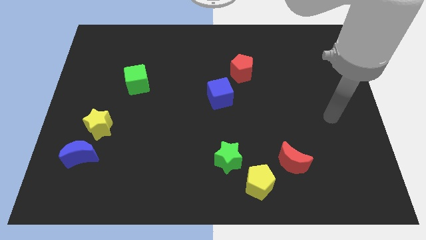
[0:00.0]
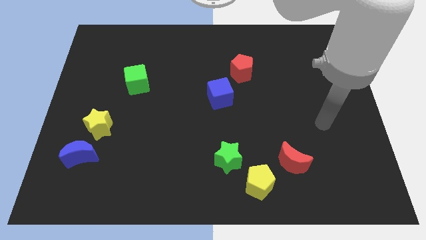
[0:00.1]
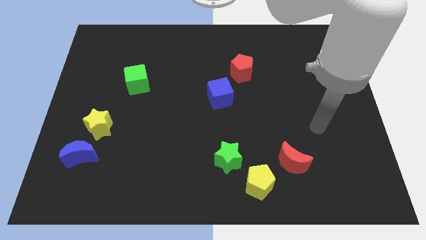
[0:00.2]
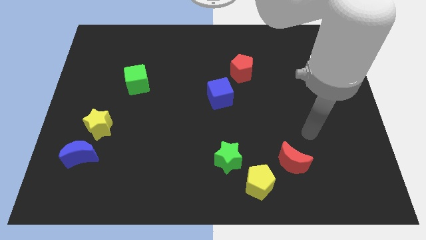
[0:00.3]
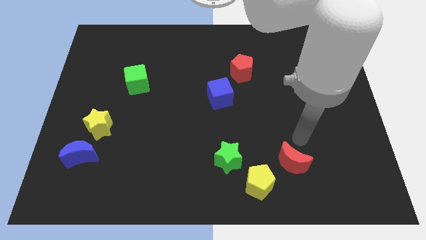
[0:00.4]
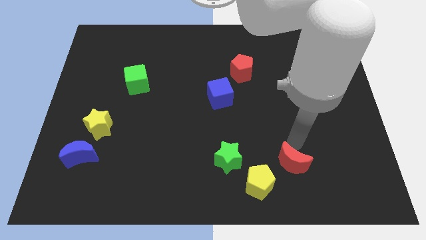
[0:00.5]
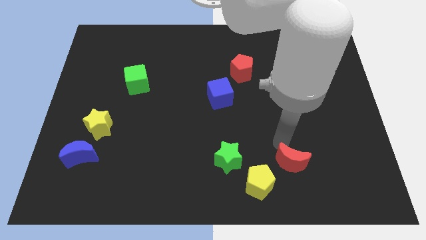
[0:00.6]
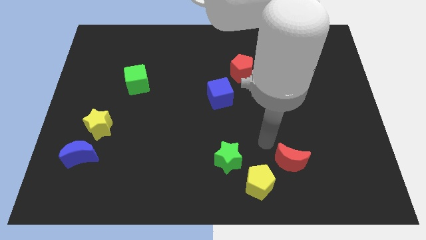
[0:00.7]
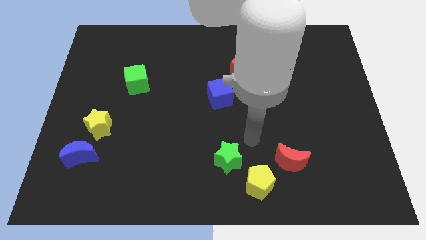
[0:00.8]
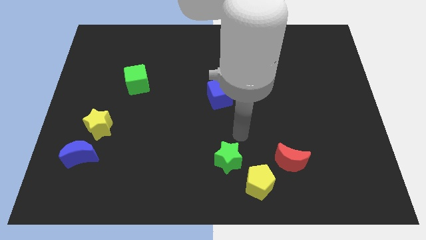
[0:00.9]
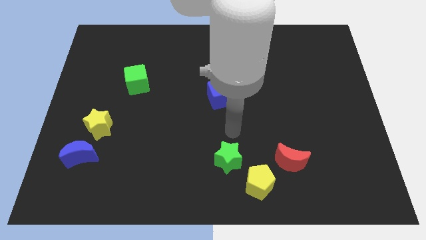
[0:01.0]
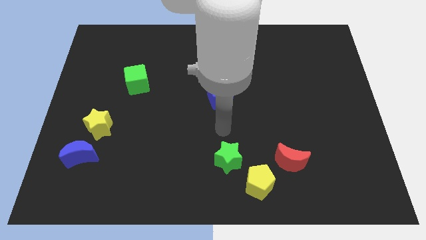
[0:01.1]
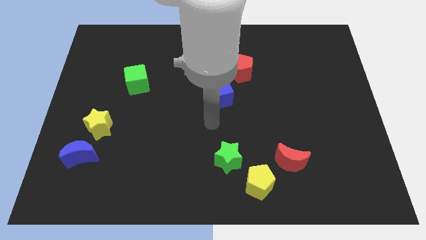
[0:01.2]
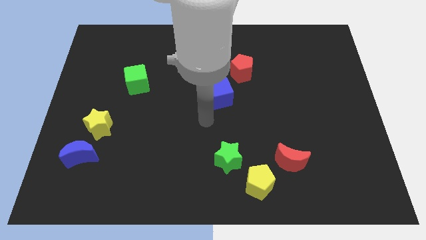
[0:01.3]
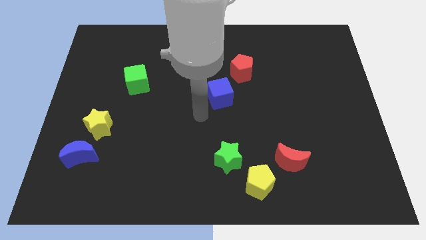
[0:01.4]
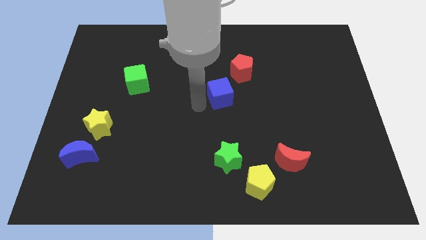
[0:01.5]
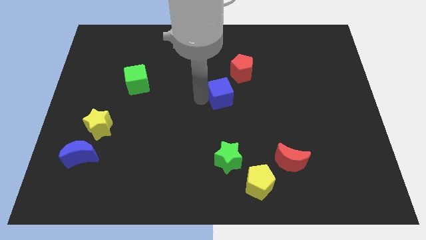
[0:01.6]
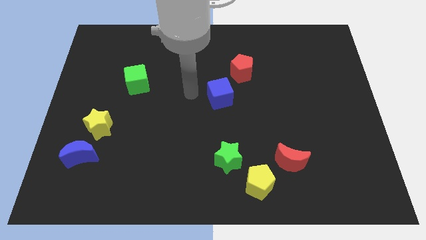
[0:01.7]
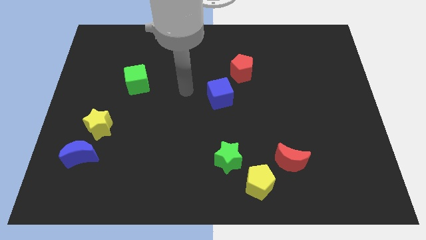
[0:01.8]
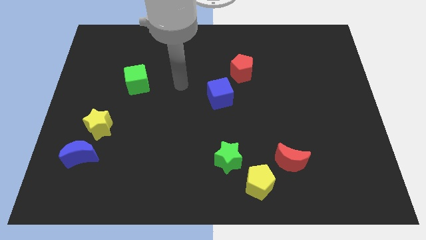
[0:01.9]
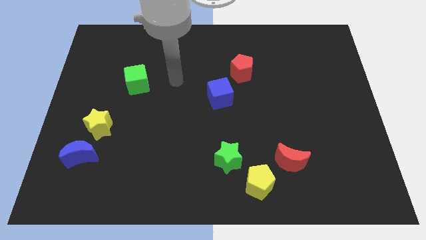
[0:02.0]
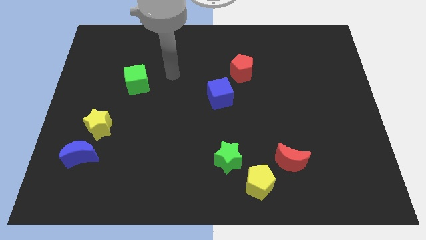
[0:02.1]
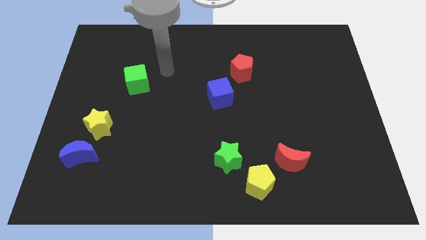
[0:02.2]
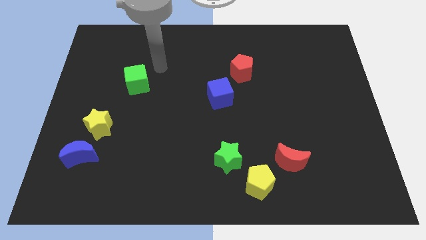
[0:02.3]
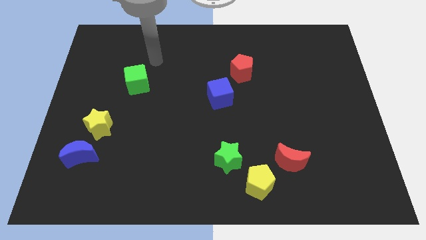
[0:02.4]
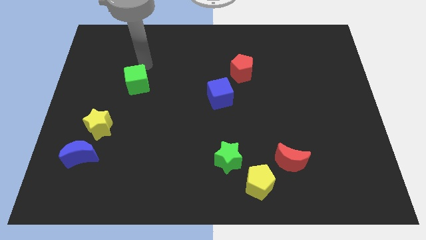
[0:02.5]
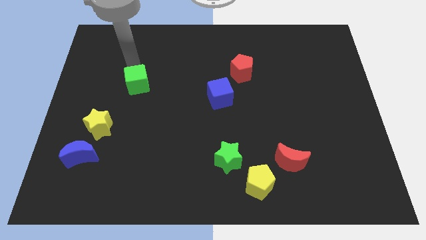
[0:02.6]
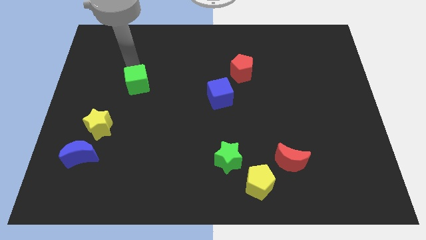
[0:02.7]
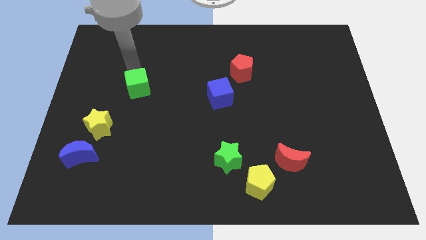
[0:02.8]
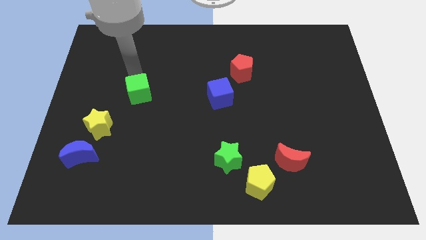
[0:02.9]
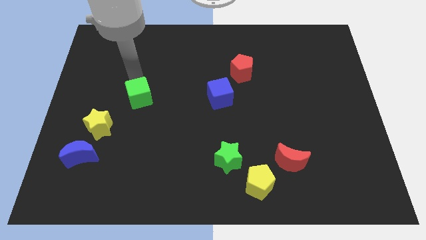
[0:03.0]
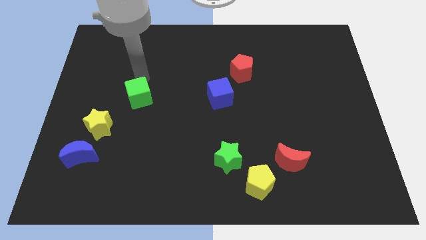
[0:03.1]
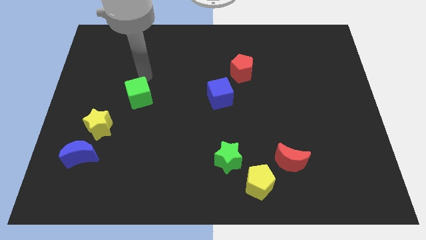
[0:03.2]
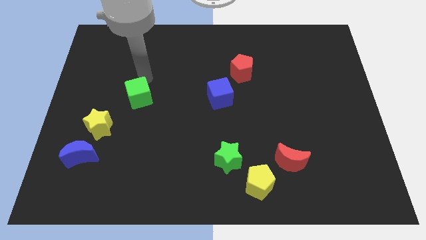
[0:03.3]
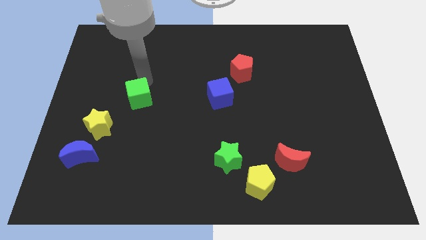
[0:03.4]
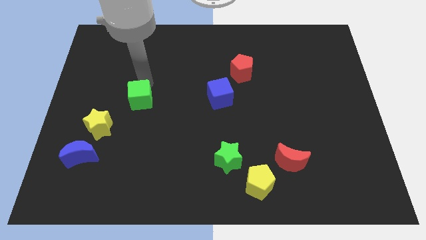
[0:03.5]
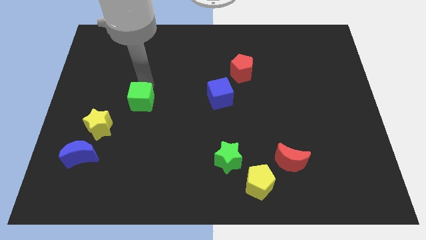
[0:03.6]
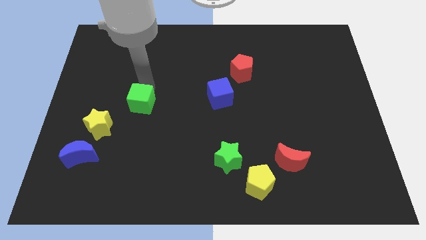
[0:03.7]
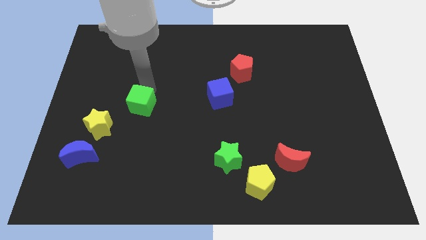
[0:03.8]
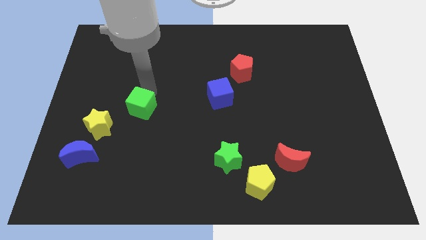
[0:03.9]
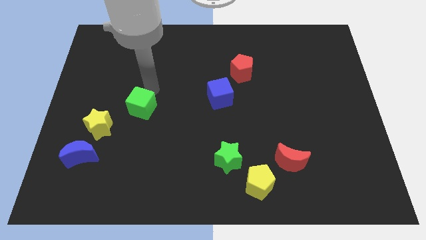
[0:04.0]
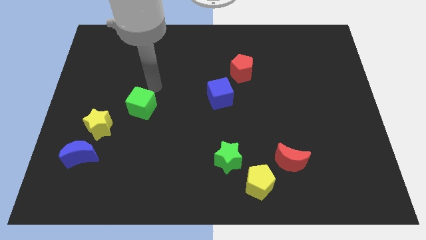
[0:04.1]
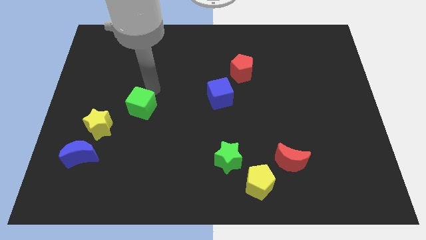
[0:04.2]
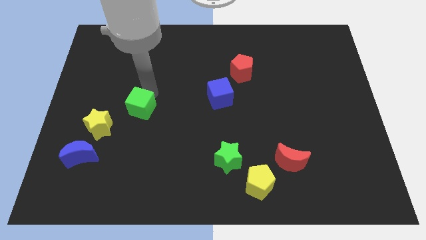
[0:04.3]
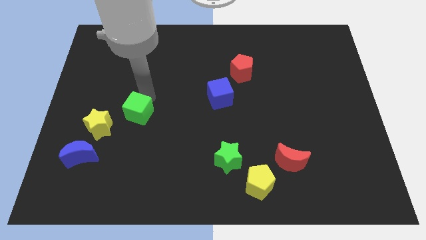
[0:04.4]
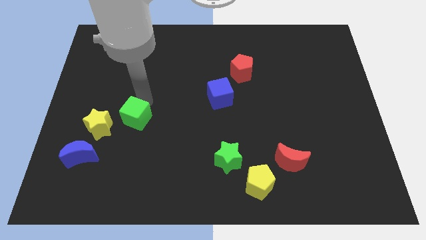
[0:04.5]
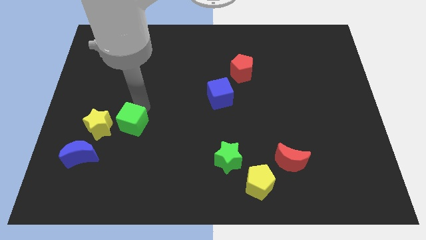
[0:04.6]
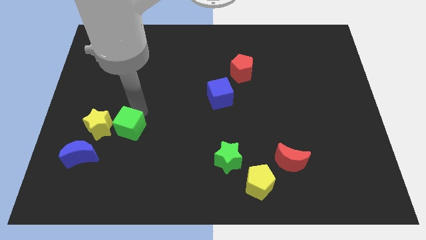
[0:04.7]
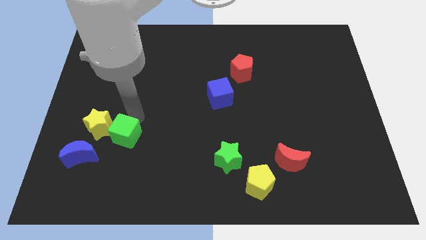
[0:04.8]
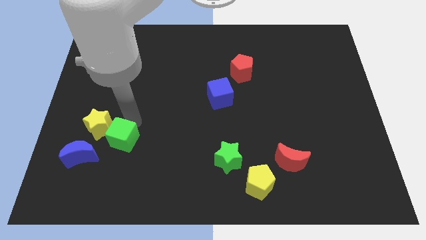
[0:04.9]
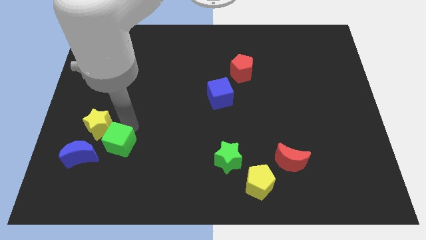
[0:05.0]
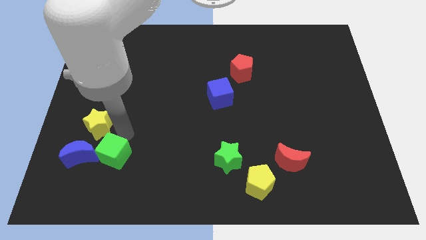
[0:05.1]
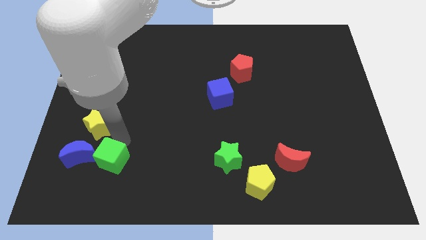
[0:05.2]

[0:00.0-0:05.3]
push the green cube to the bottom right side of the blue moon

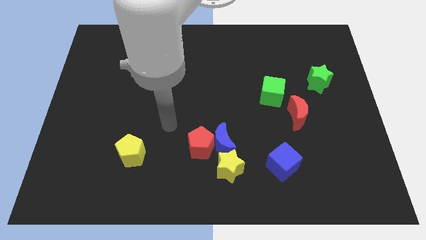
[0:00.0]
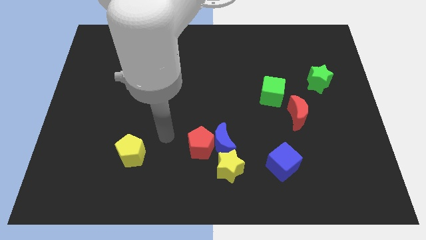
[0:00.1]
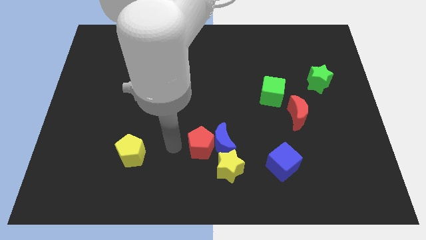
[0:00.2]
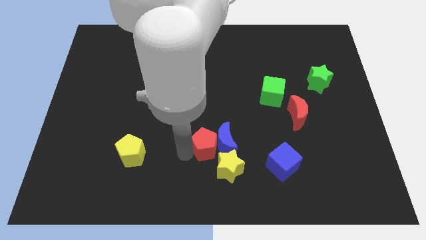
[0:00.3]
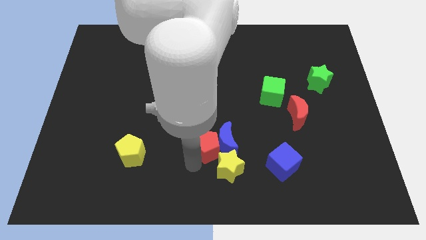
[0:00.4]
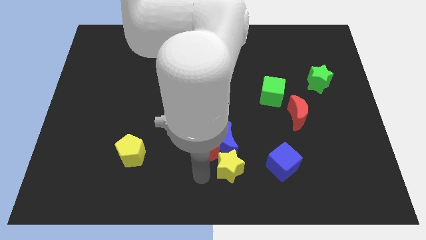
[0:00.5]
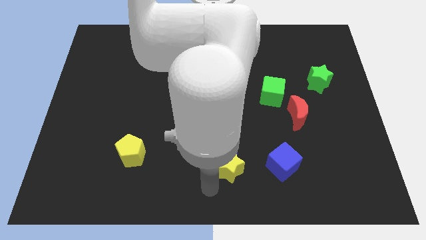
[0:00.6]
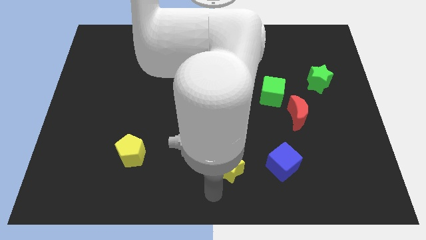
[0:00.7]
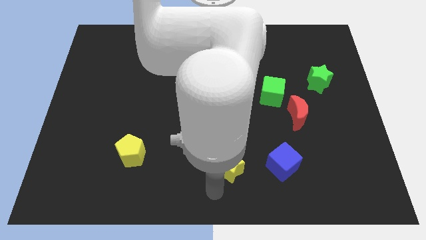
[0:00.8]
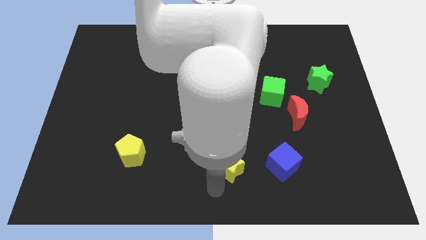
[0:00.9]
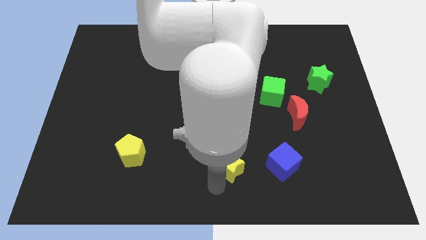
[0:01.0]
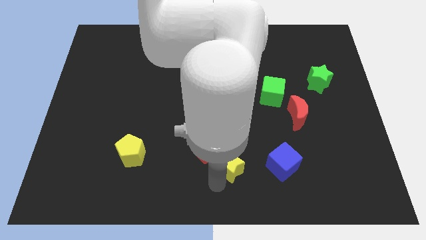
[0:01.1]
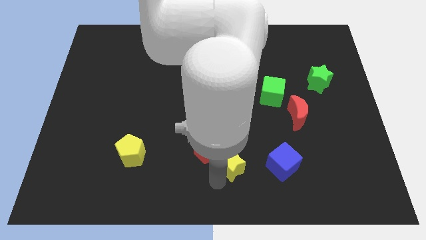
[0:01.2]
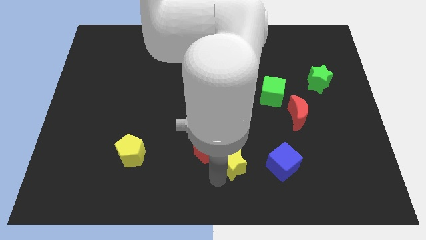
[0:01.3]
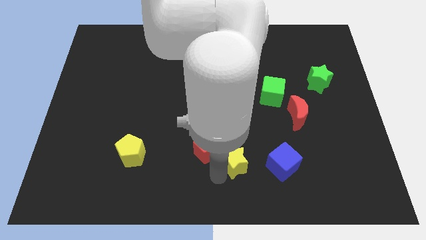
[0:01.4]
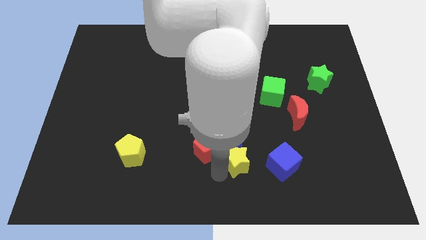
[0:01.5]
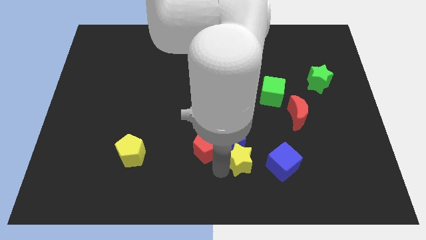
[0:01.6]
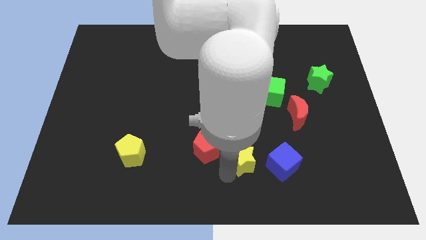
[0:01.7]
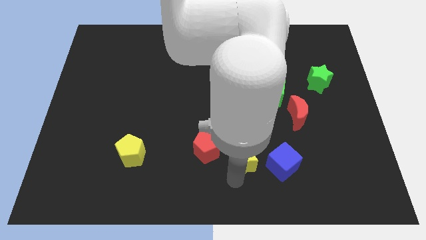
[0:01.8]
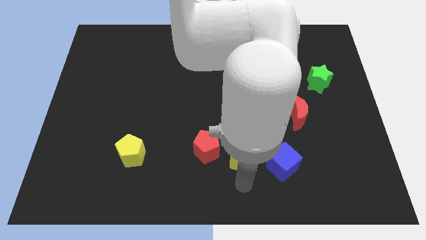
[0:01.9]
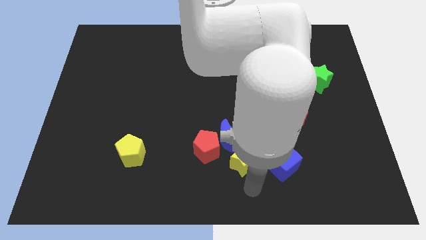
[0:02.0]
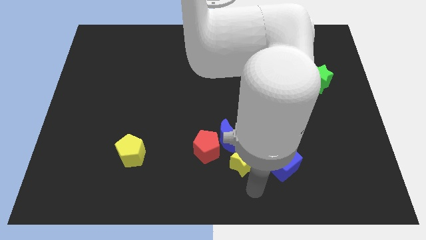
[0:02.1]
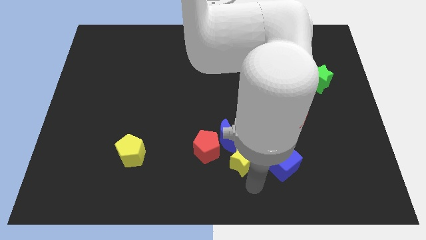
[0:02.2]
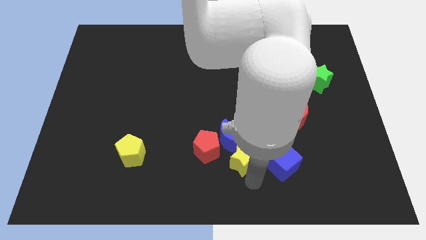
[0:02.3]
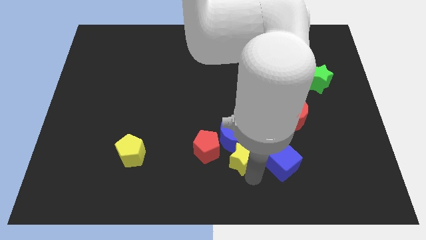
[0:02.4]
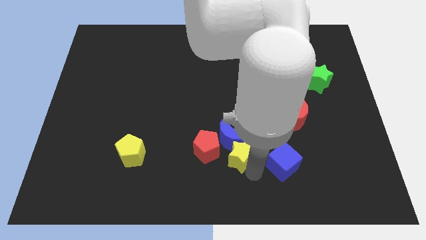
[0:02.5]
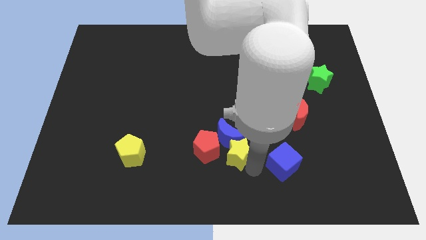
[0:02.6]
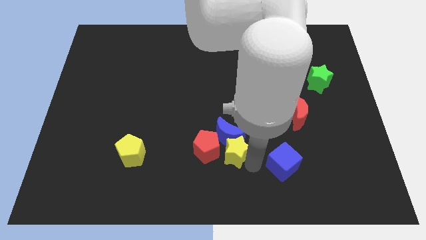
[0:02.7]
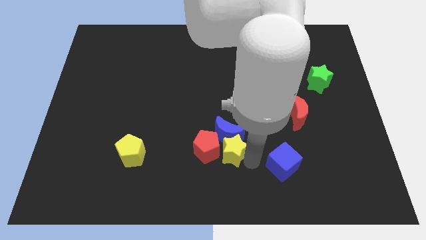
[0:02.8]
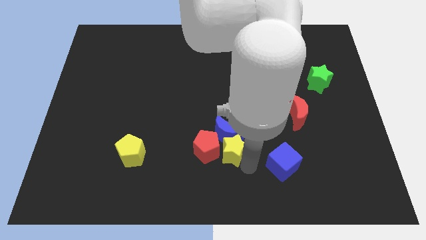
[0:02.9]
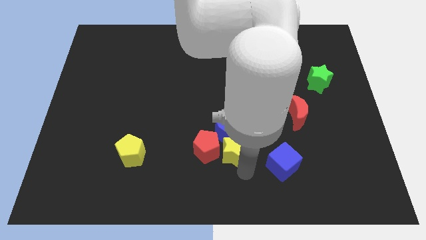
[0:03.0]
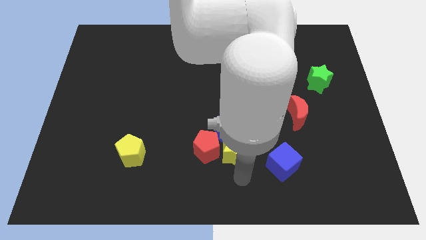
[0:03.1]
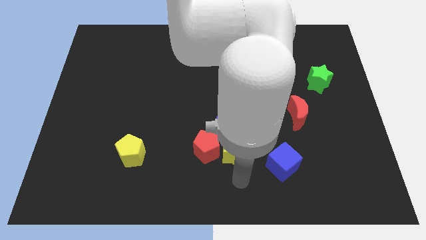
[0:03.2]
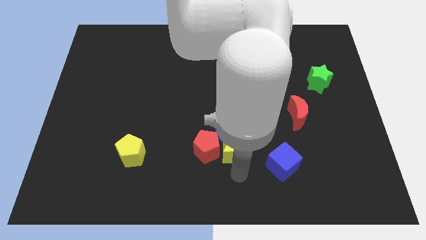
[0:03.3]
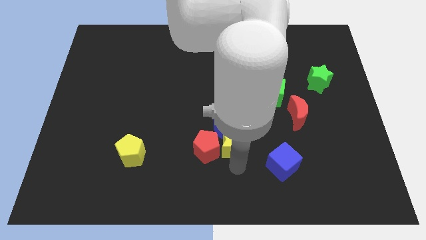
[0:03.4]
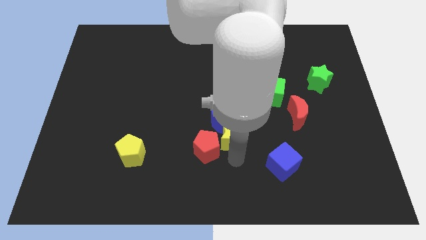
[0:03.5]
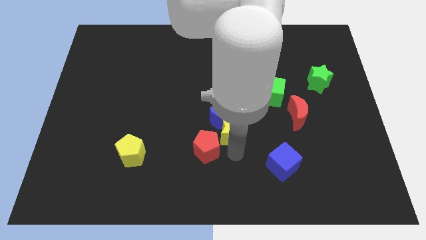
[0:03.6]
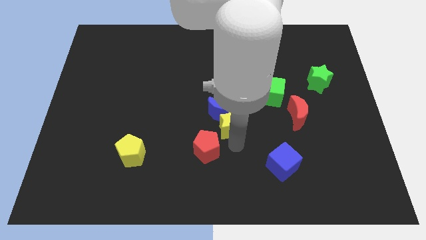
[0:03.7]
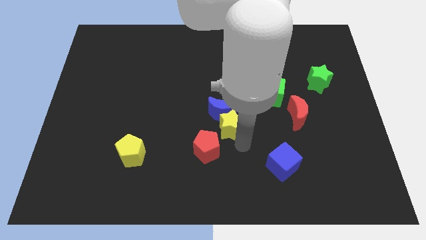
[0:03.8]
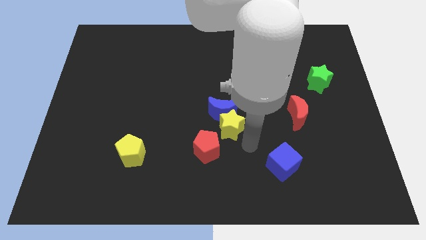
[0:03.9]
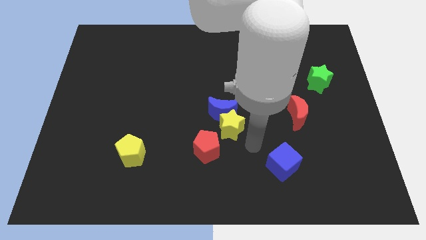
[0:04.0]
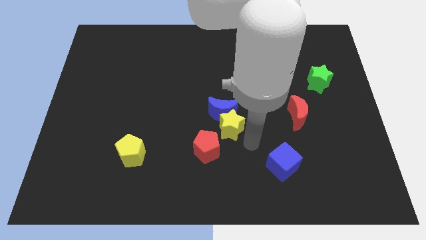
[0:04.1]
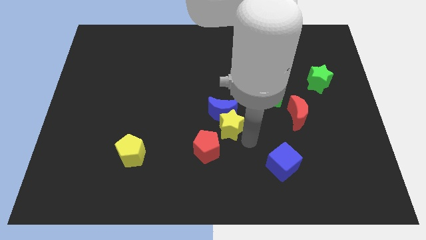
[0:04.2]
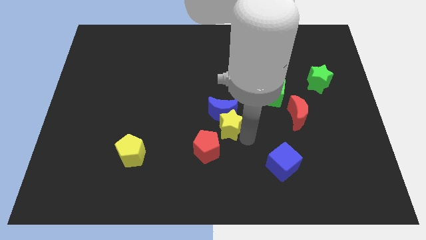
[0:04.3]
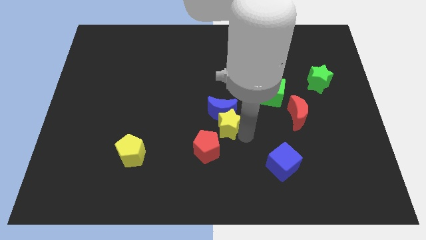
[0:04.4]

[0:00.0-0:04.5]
slide the yellow star to the top side of the red pentagon
